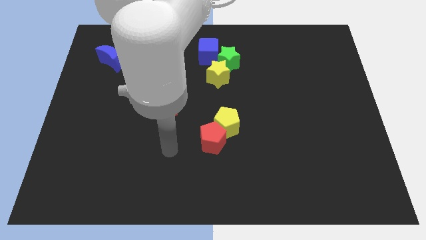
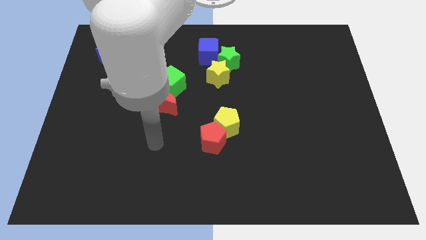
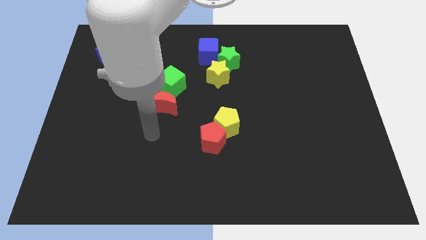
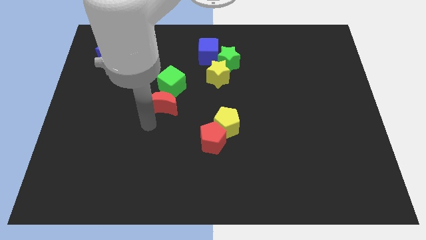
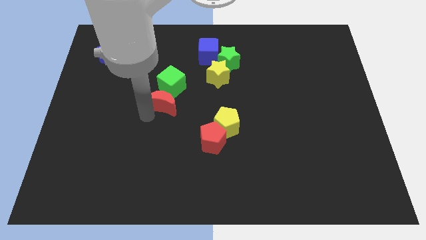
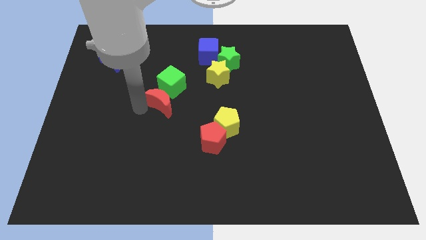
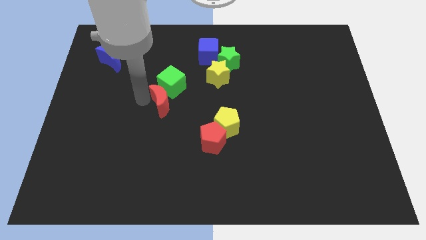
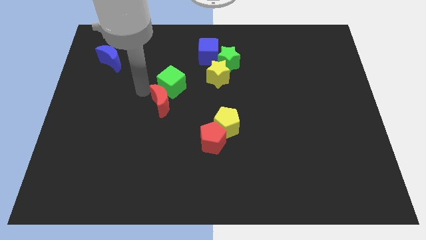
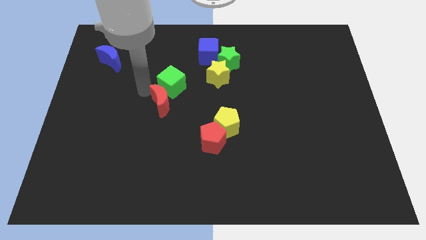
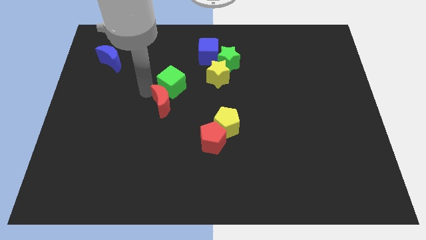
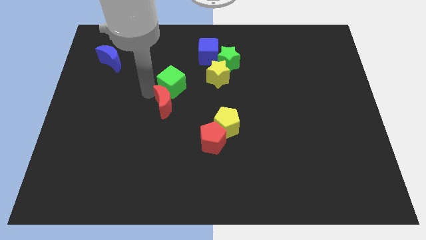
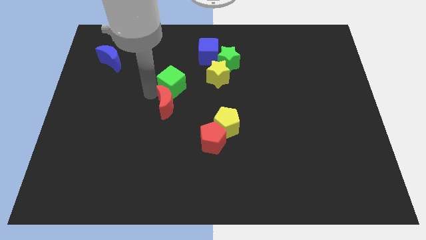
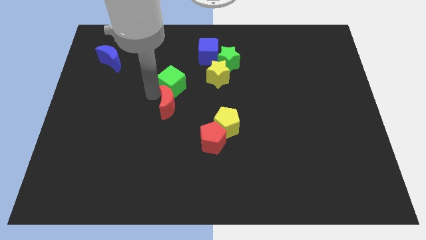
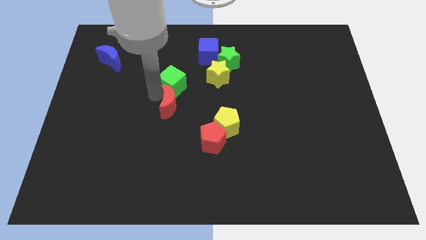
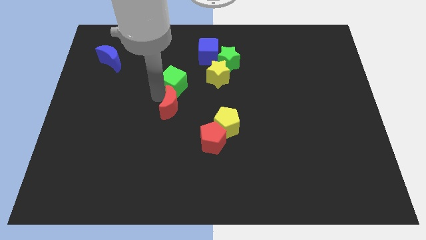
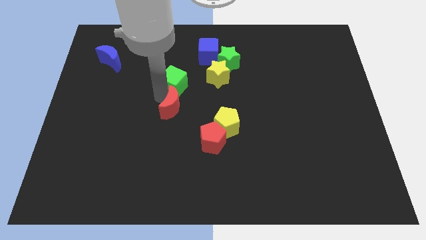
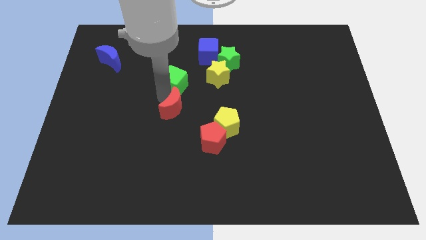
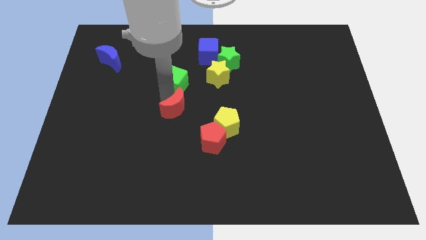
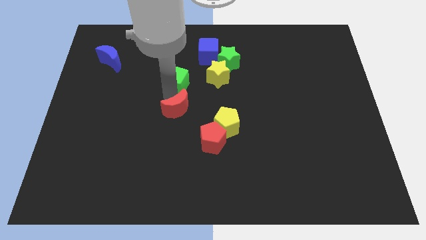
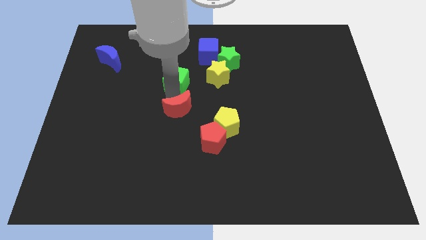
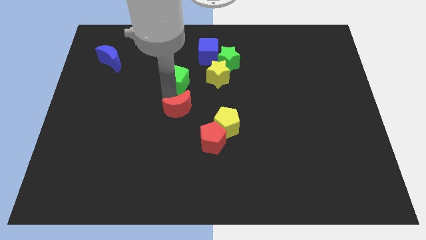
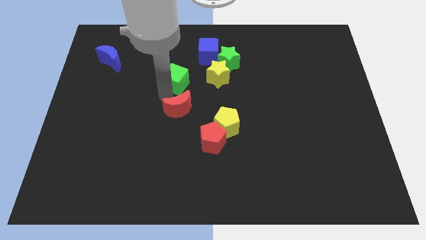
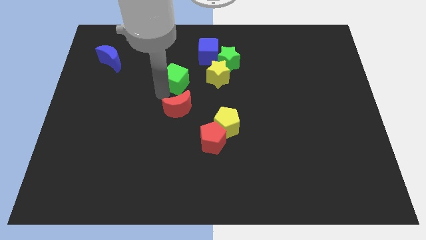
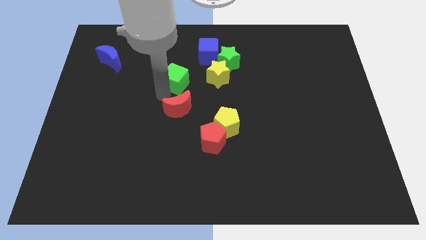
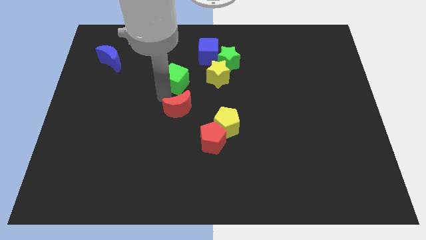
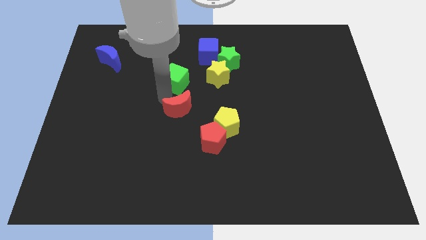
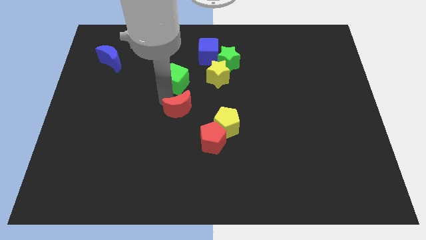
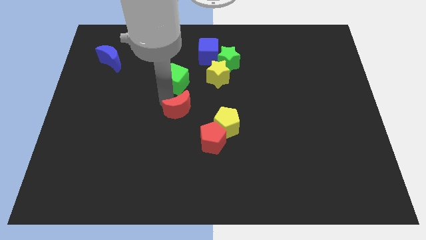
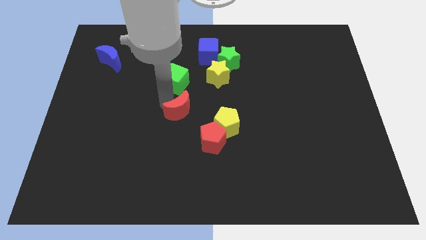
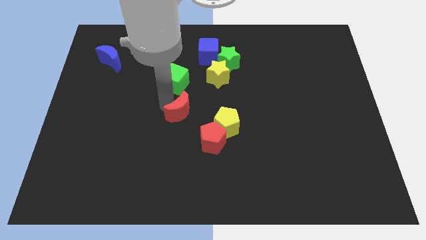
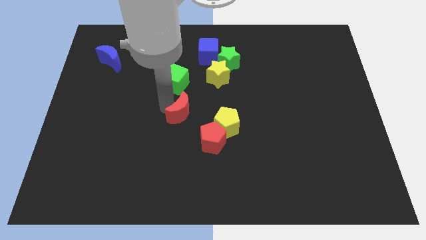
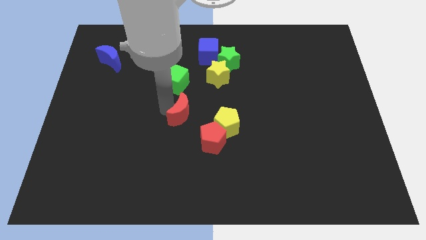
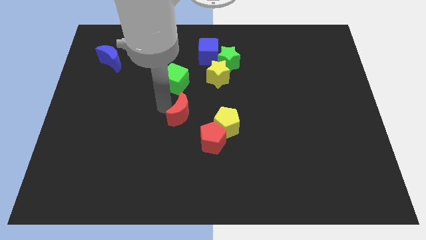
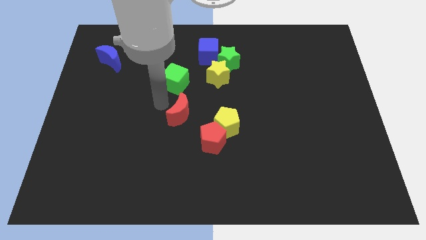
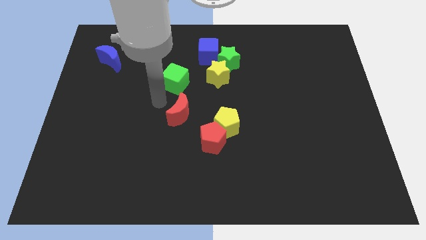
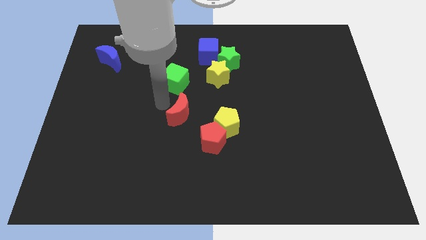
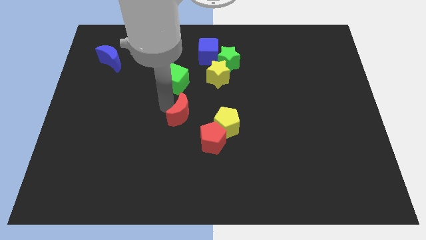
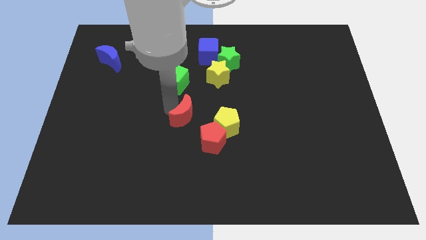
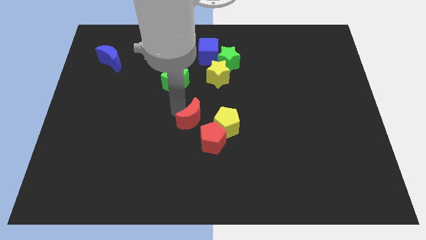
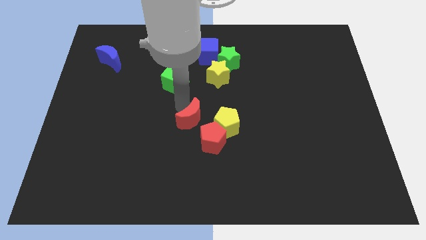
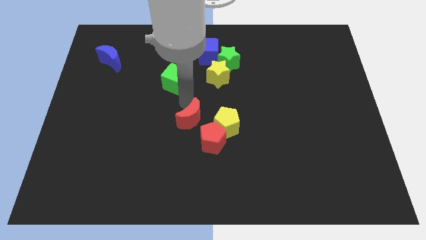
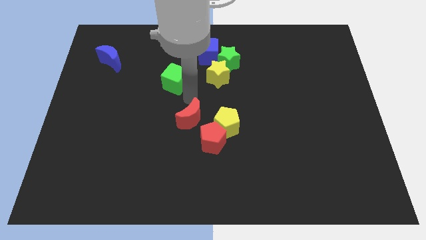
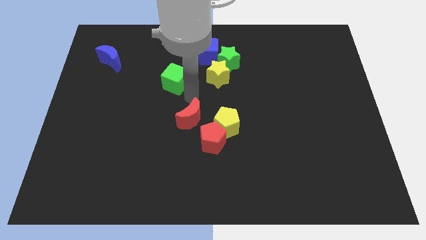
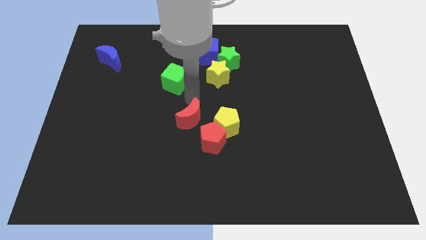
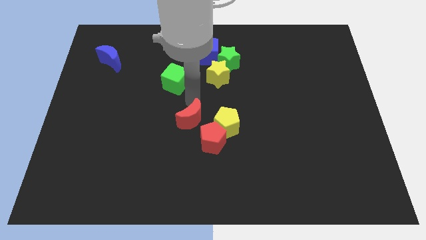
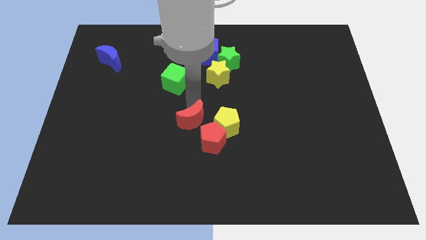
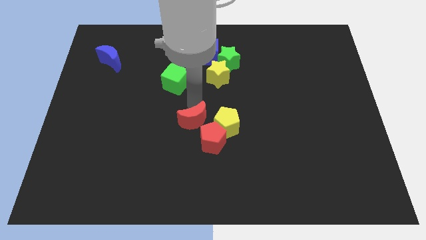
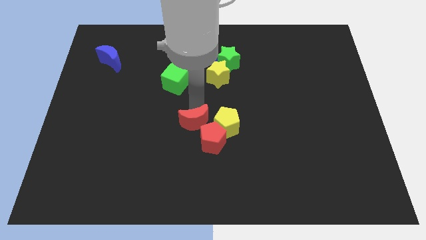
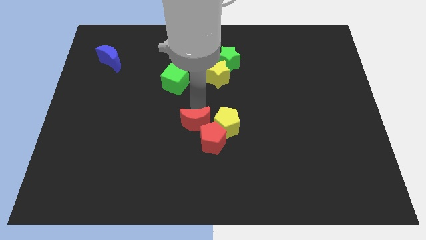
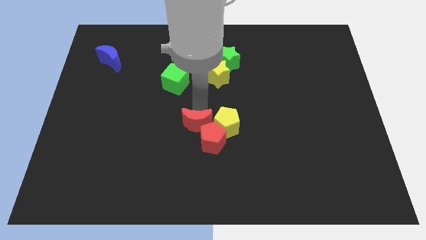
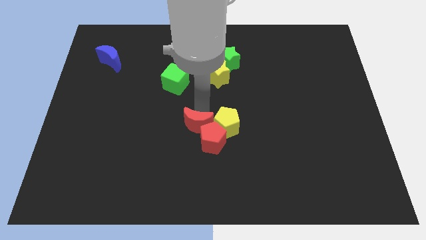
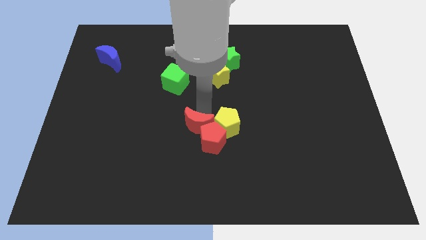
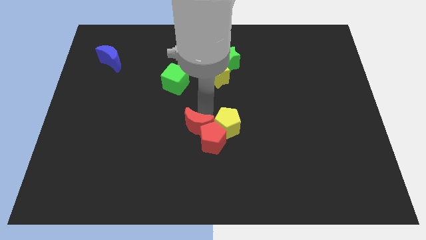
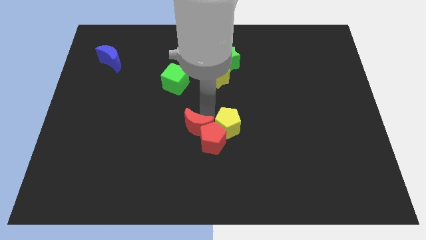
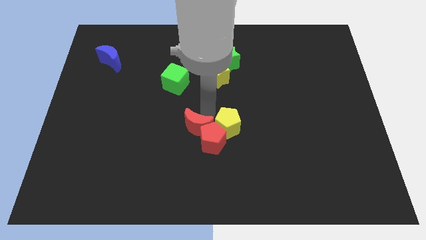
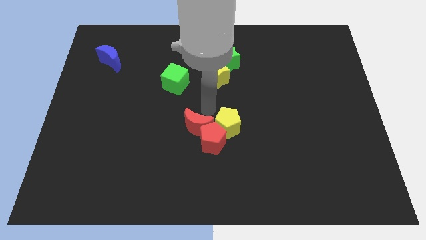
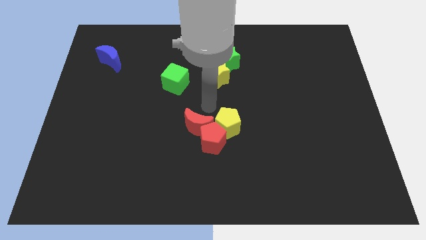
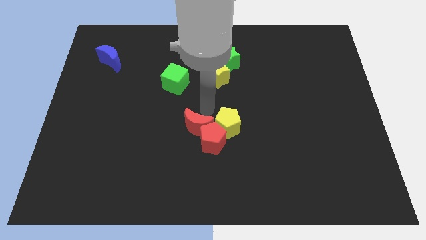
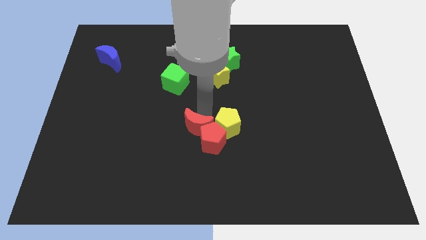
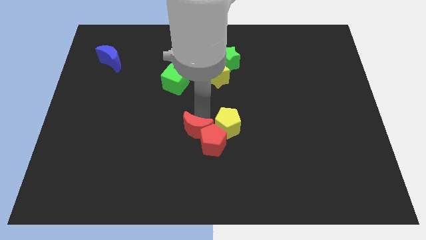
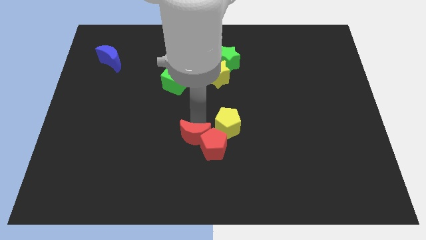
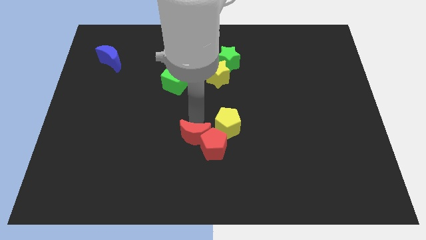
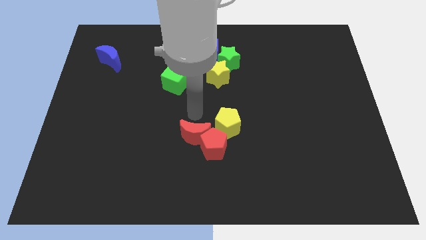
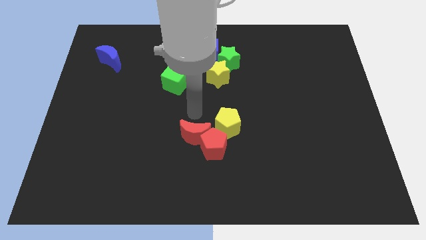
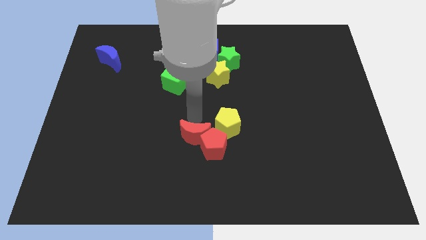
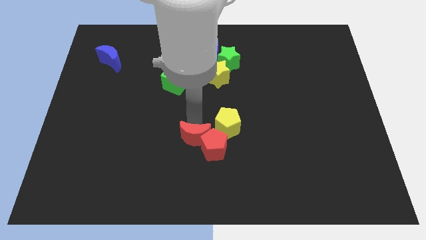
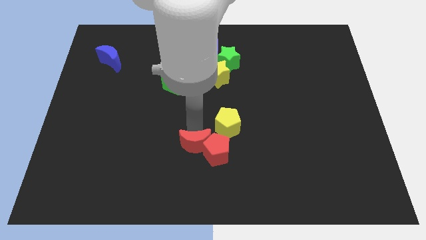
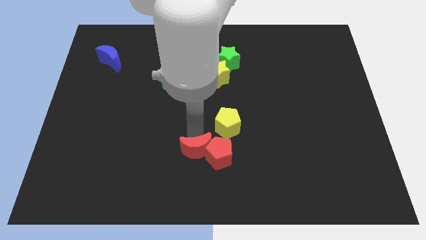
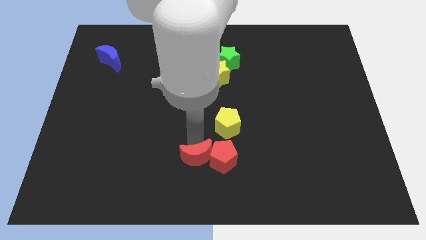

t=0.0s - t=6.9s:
move the red moon to the bottom
